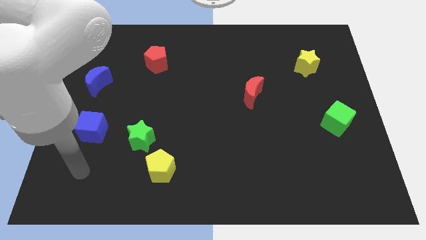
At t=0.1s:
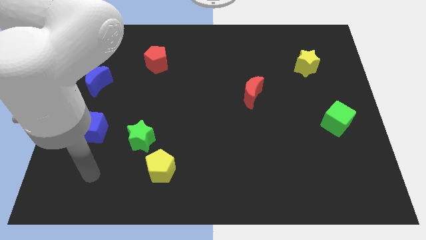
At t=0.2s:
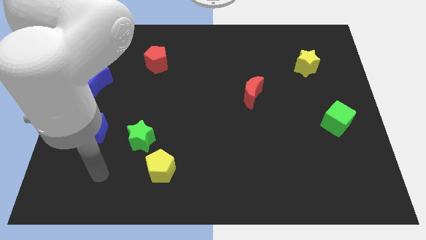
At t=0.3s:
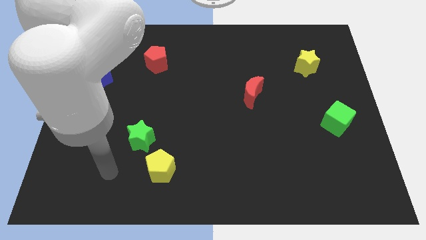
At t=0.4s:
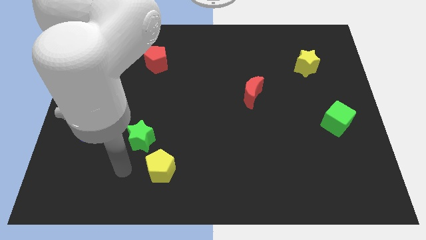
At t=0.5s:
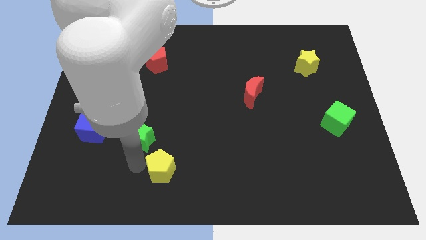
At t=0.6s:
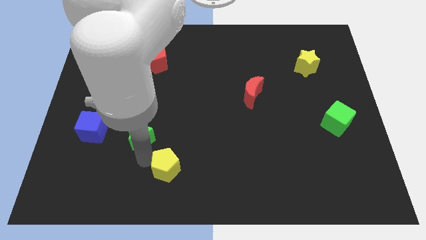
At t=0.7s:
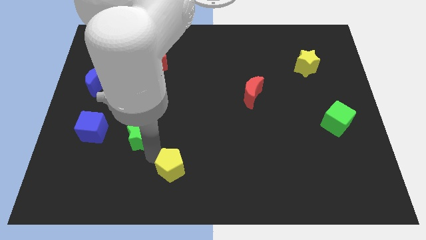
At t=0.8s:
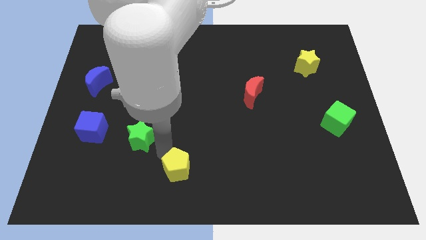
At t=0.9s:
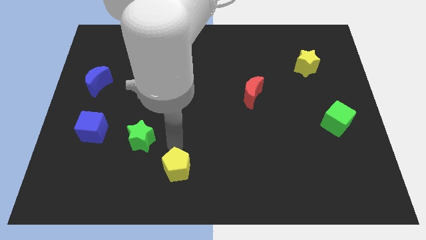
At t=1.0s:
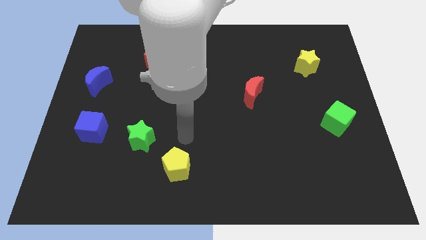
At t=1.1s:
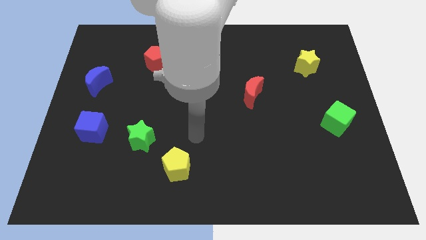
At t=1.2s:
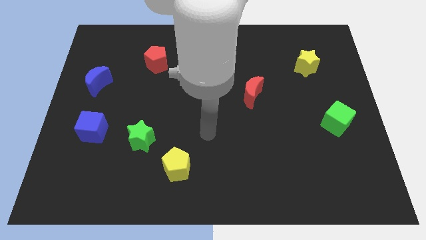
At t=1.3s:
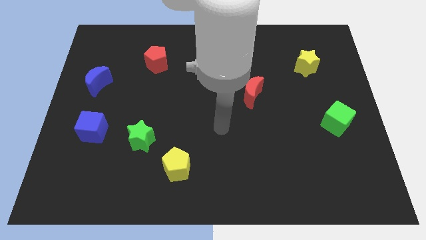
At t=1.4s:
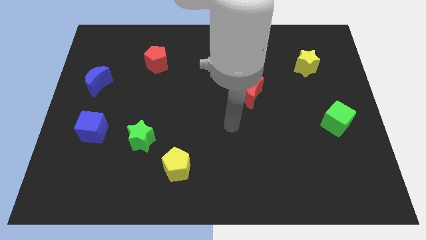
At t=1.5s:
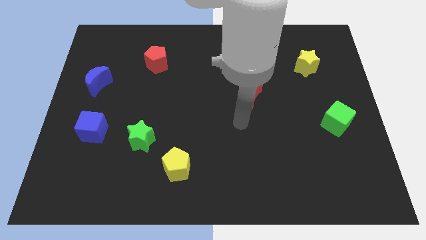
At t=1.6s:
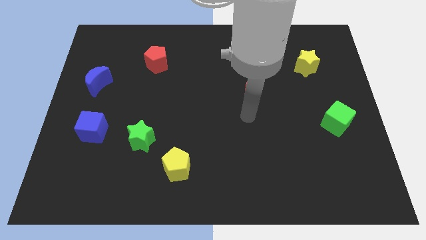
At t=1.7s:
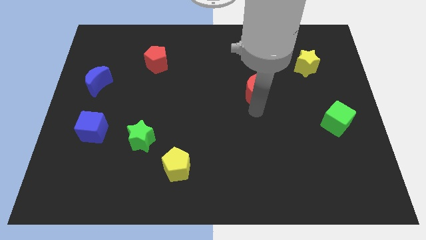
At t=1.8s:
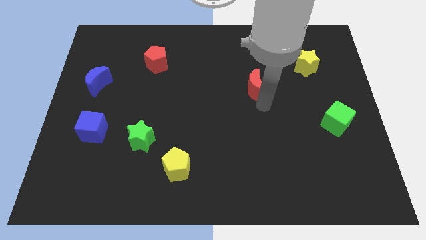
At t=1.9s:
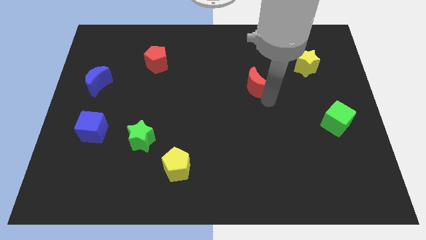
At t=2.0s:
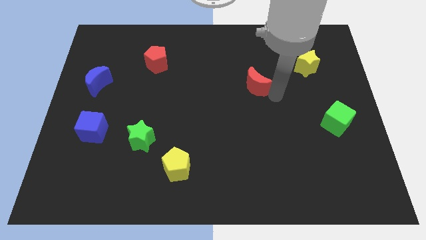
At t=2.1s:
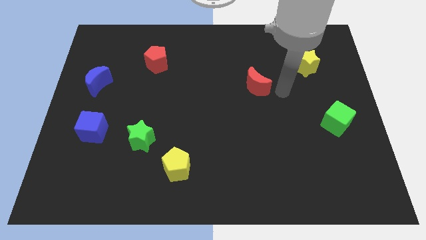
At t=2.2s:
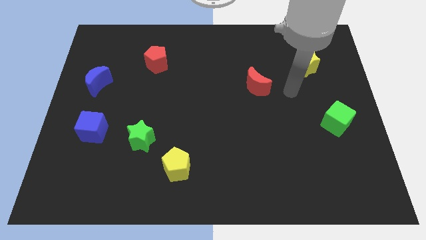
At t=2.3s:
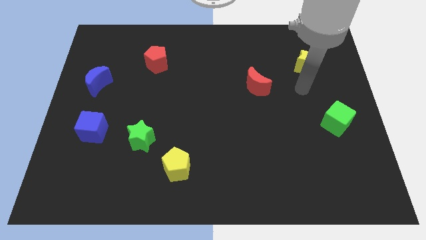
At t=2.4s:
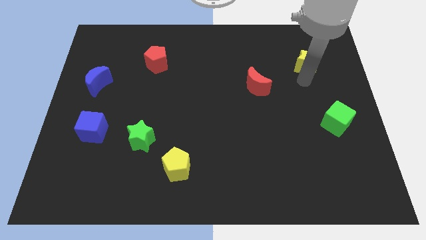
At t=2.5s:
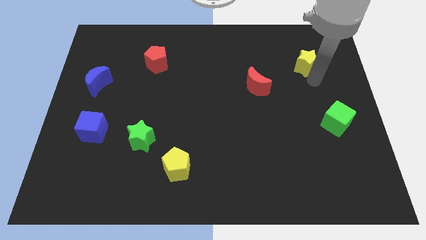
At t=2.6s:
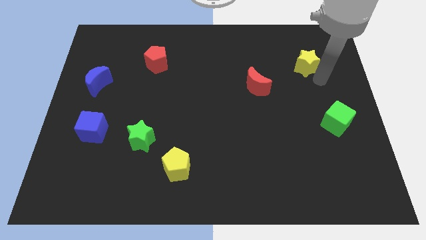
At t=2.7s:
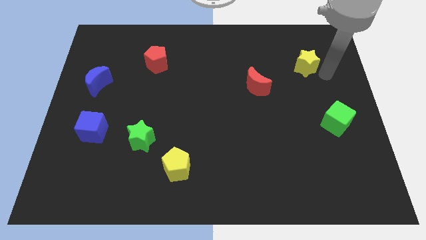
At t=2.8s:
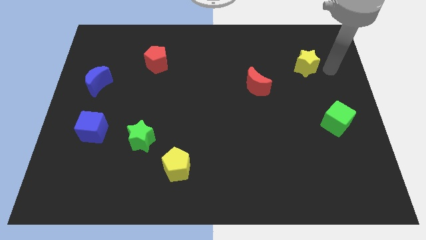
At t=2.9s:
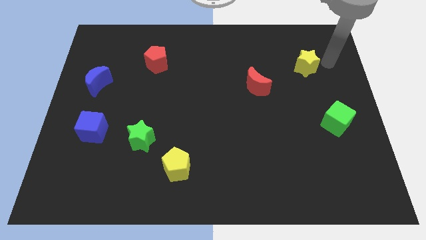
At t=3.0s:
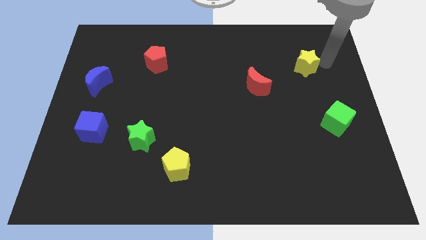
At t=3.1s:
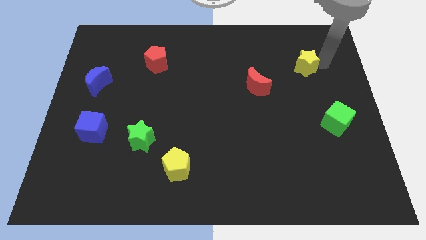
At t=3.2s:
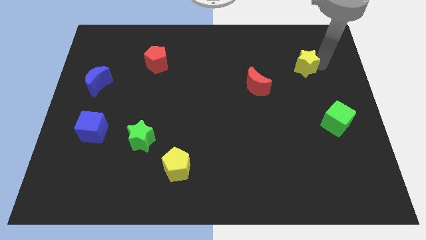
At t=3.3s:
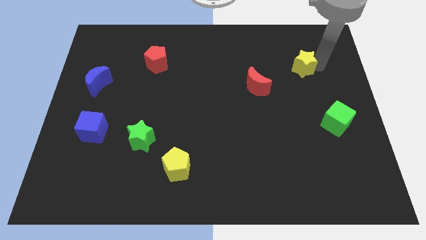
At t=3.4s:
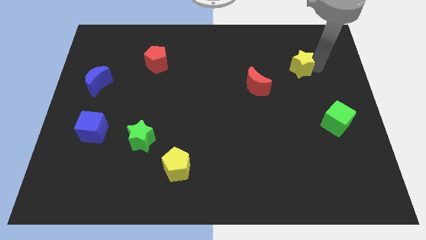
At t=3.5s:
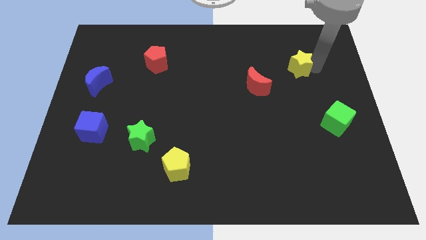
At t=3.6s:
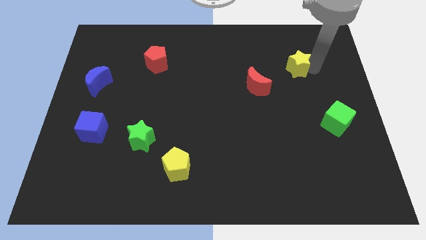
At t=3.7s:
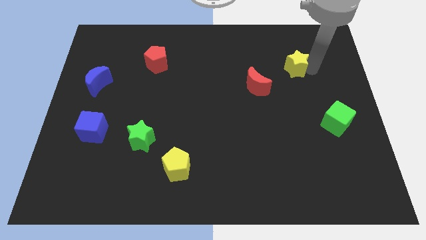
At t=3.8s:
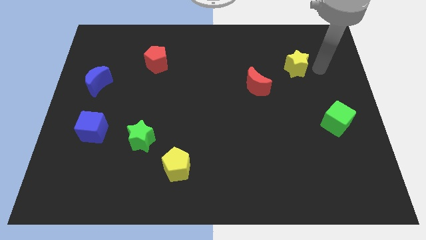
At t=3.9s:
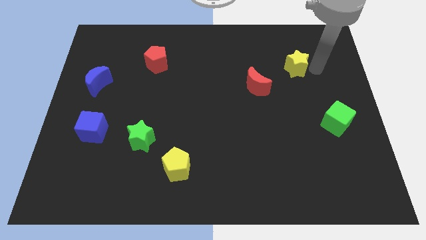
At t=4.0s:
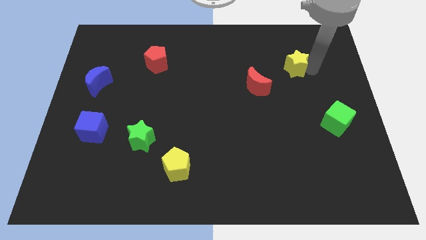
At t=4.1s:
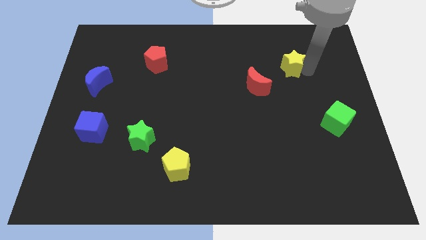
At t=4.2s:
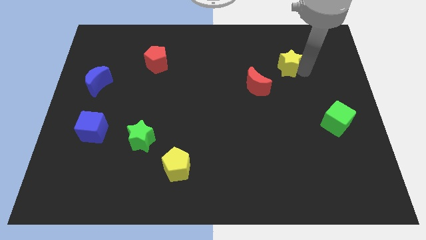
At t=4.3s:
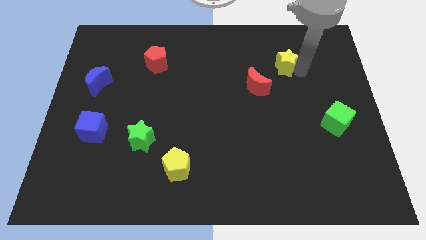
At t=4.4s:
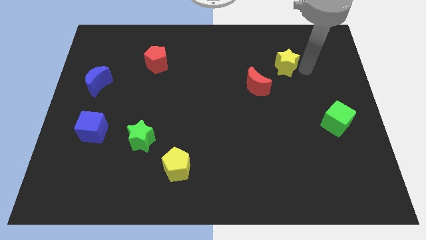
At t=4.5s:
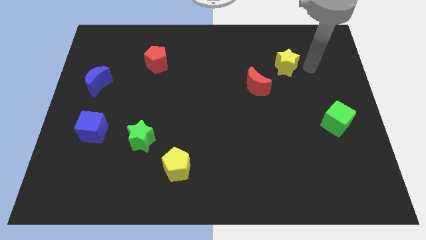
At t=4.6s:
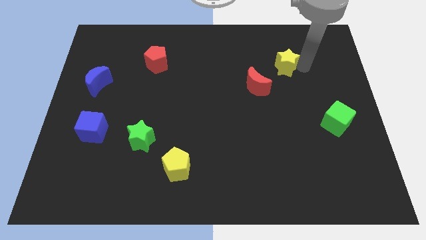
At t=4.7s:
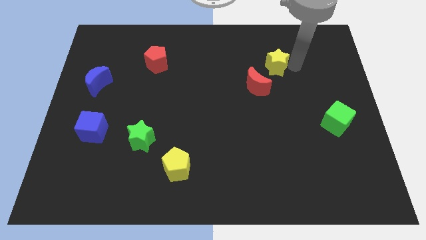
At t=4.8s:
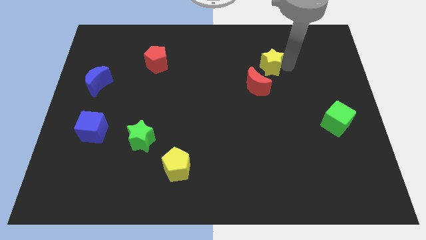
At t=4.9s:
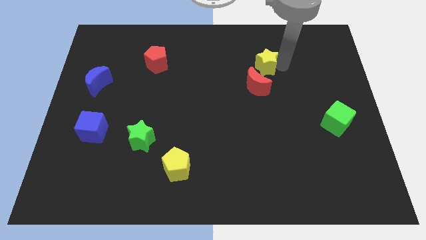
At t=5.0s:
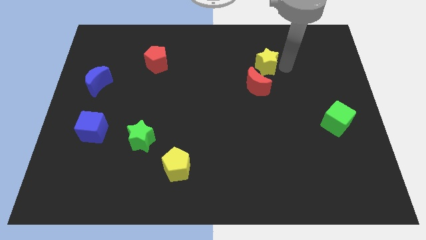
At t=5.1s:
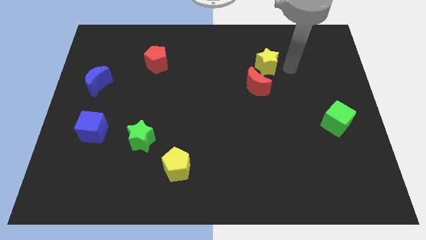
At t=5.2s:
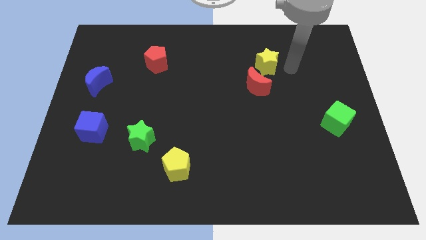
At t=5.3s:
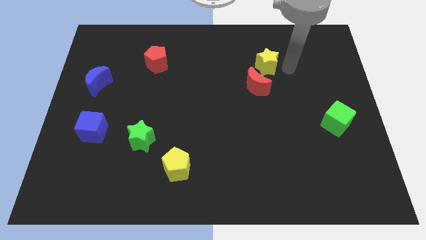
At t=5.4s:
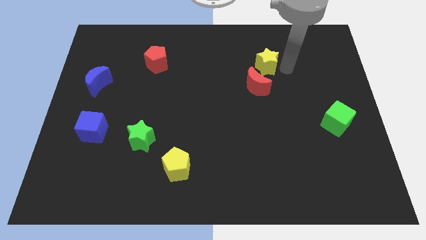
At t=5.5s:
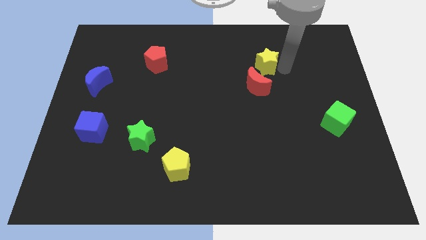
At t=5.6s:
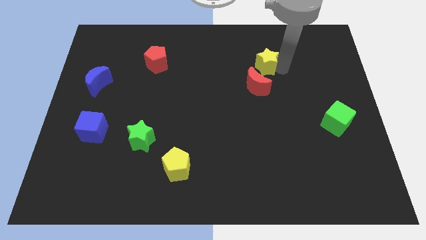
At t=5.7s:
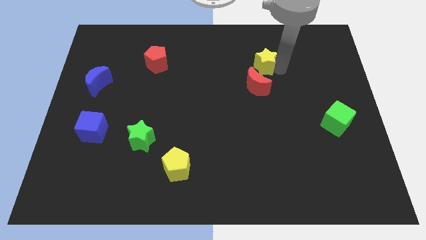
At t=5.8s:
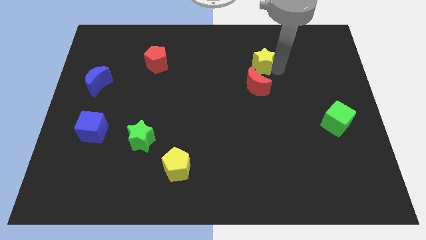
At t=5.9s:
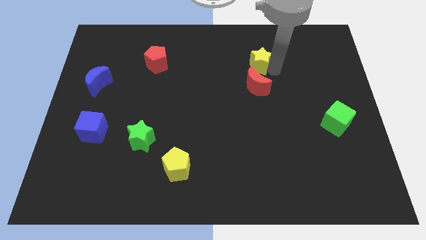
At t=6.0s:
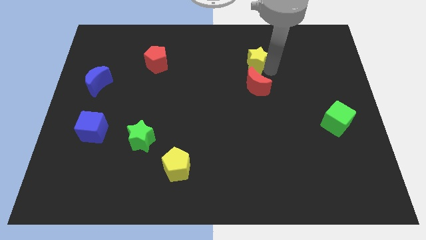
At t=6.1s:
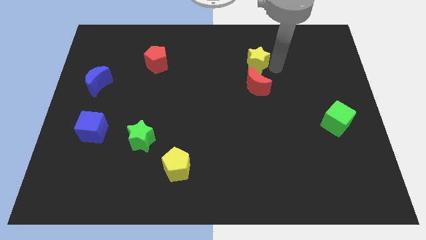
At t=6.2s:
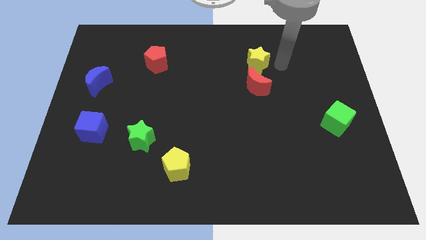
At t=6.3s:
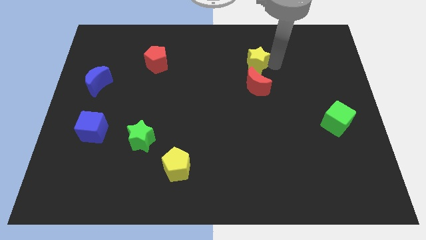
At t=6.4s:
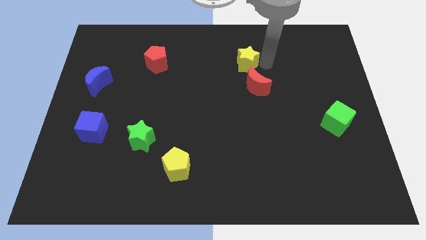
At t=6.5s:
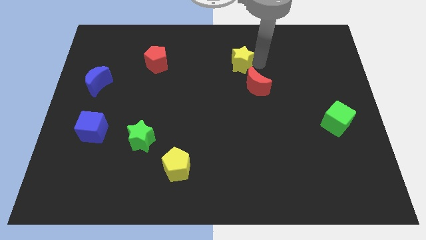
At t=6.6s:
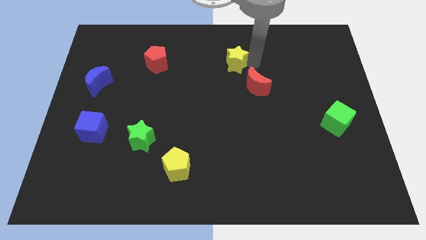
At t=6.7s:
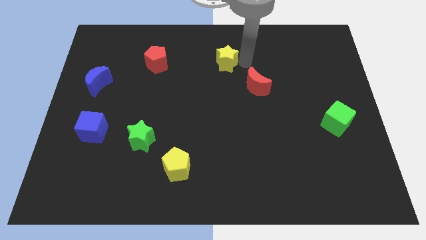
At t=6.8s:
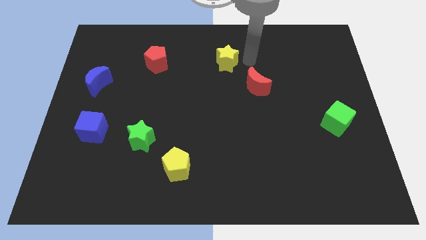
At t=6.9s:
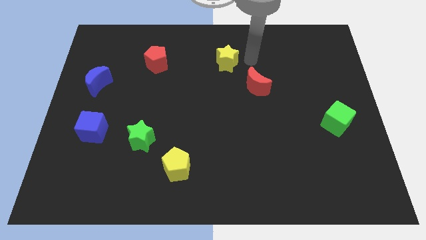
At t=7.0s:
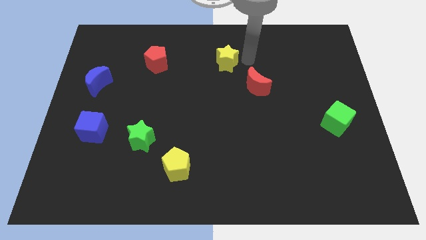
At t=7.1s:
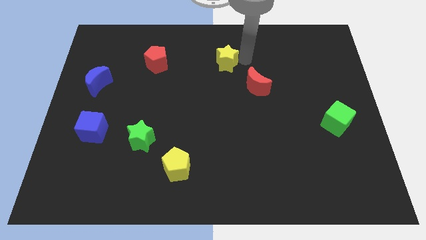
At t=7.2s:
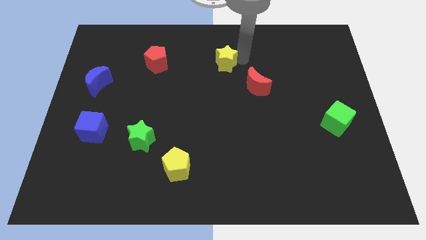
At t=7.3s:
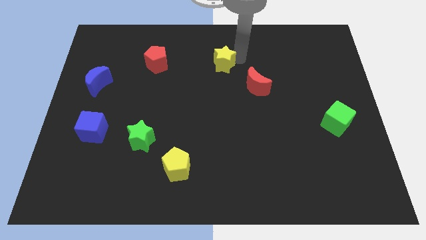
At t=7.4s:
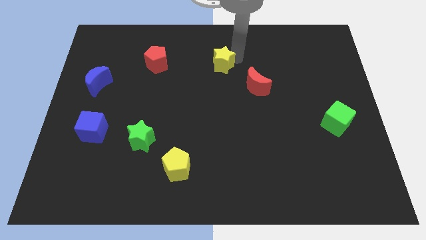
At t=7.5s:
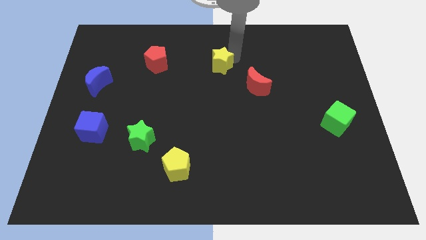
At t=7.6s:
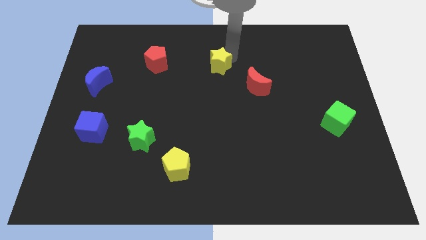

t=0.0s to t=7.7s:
put the yellow star to the right of the red pentagon
